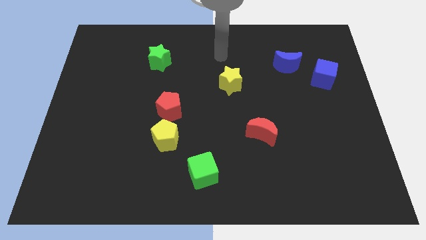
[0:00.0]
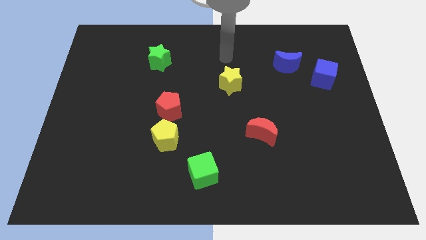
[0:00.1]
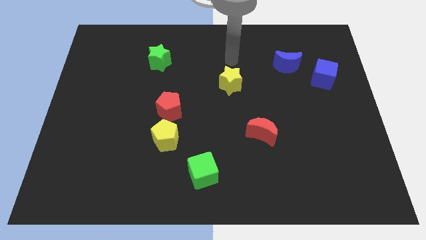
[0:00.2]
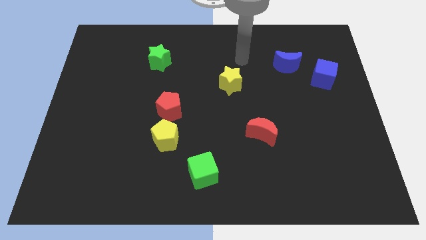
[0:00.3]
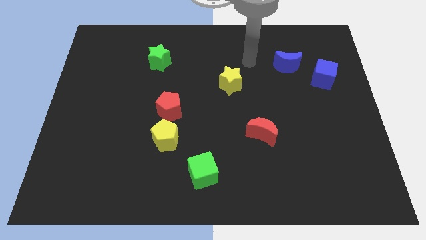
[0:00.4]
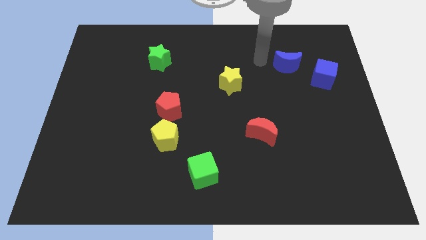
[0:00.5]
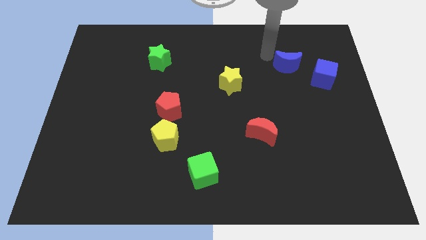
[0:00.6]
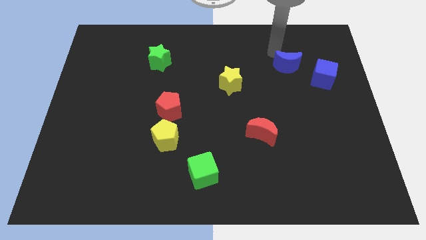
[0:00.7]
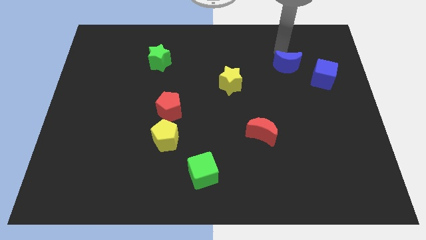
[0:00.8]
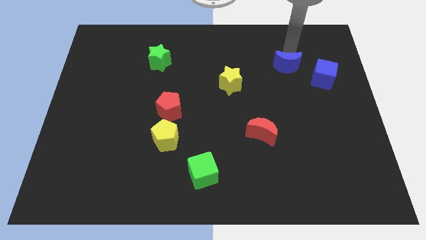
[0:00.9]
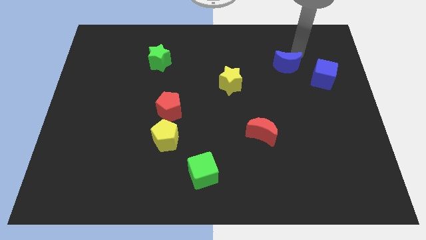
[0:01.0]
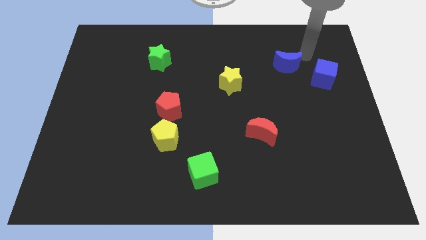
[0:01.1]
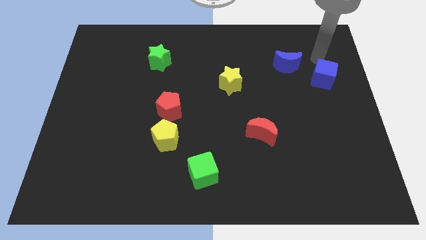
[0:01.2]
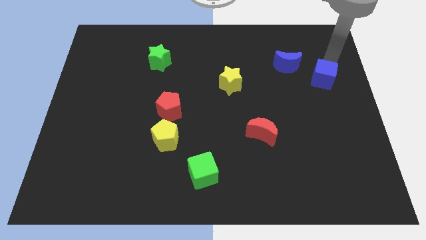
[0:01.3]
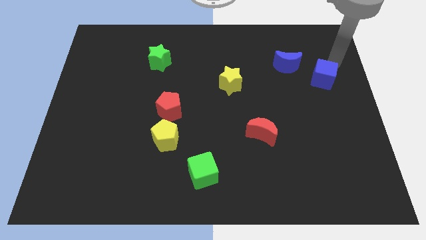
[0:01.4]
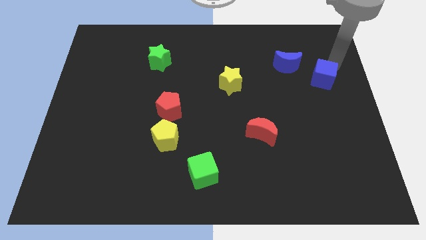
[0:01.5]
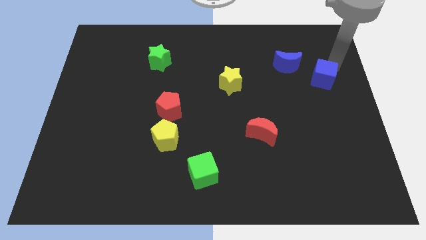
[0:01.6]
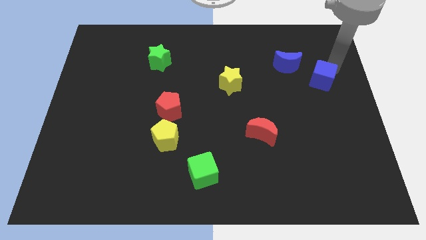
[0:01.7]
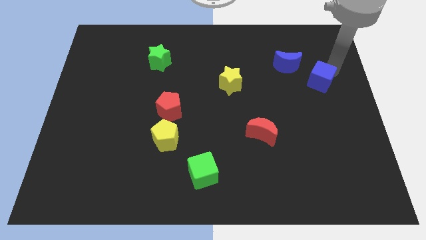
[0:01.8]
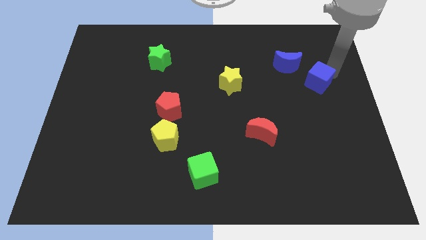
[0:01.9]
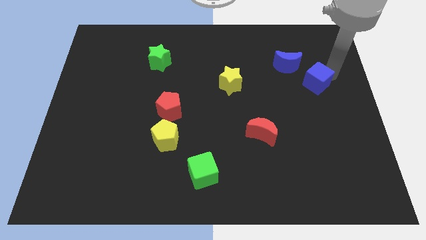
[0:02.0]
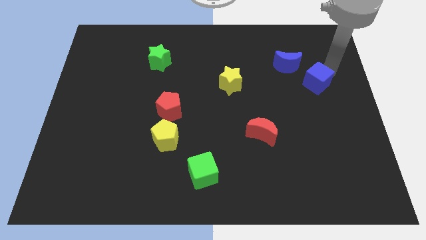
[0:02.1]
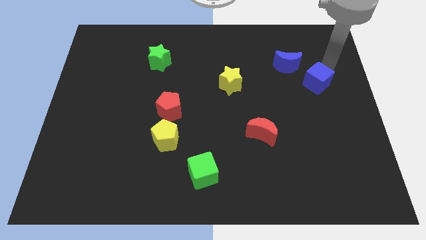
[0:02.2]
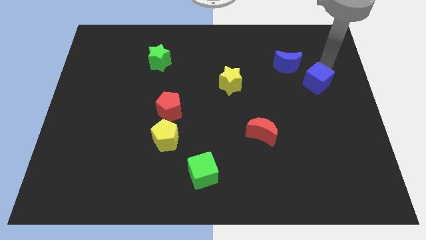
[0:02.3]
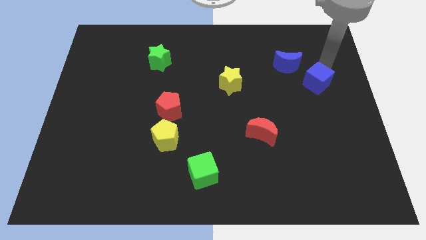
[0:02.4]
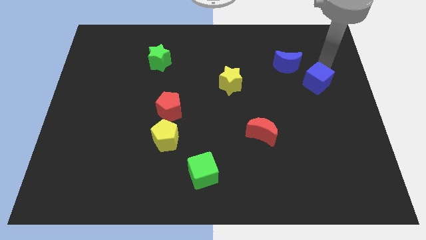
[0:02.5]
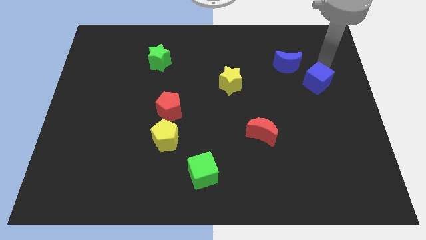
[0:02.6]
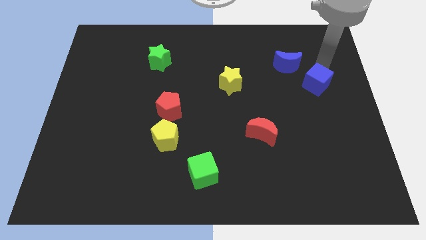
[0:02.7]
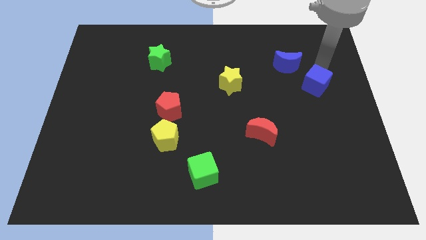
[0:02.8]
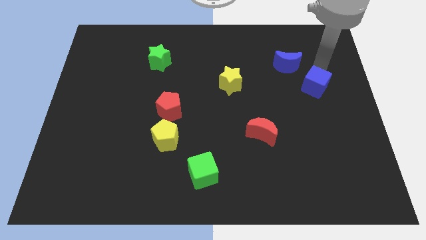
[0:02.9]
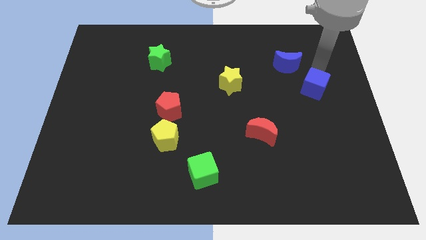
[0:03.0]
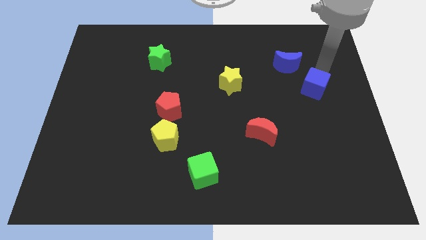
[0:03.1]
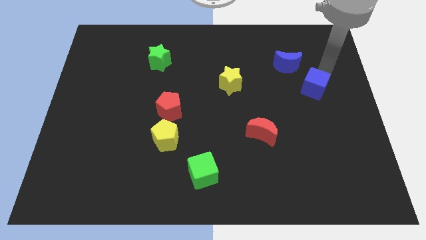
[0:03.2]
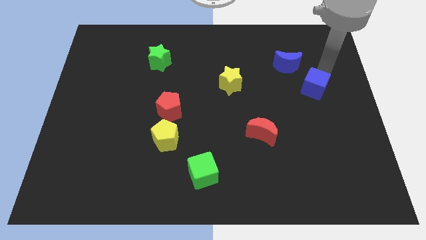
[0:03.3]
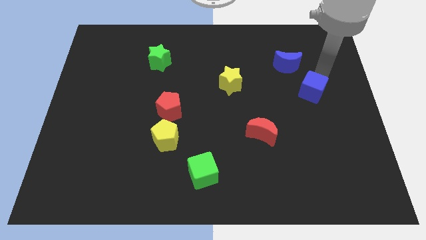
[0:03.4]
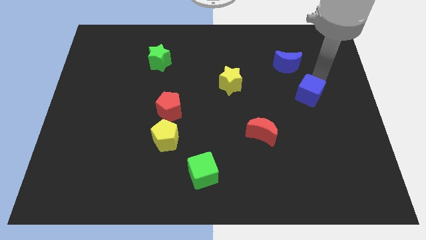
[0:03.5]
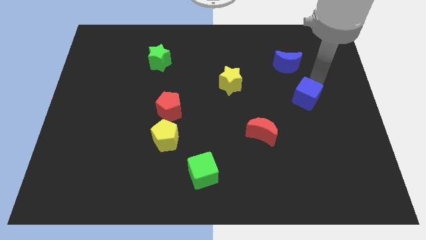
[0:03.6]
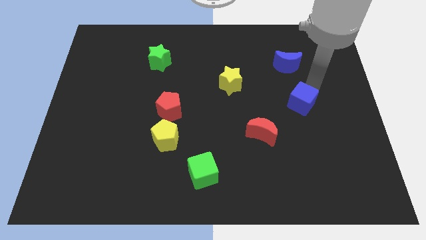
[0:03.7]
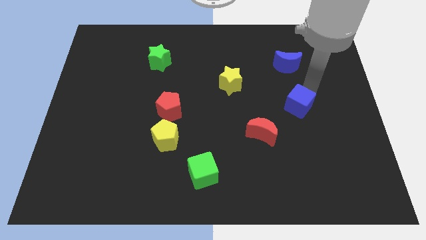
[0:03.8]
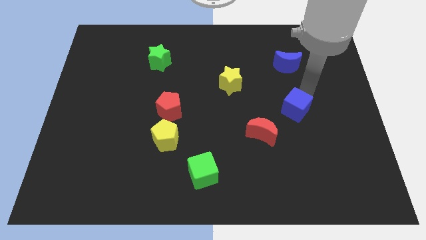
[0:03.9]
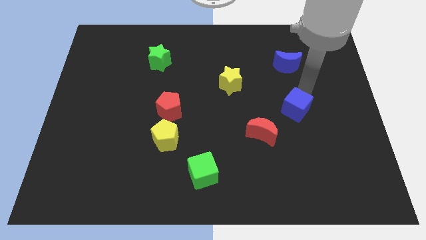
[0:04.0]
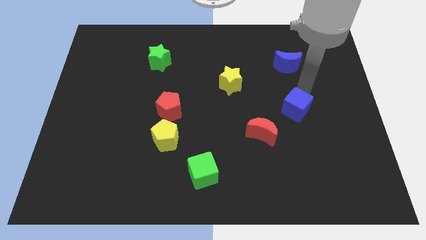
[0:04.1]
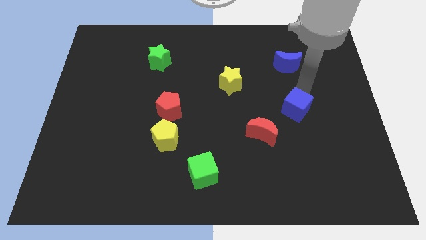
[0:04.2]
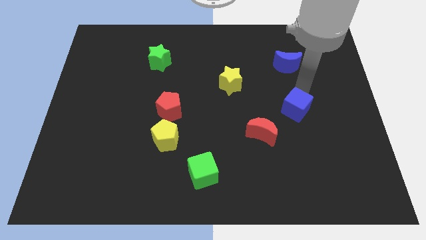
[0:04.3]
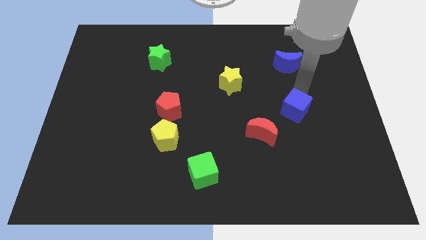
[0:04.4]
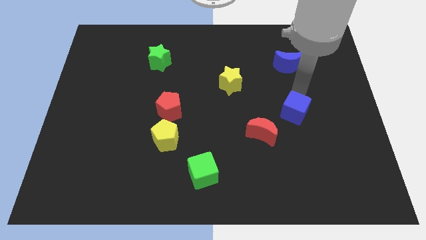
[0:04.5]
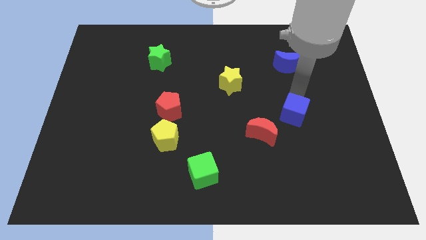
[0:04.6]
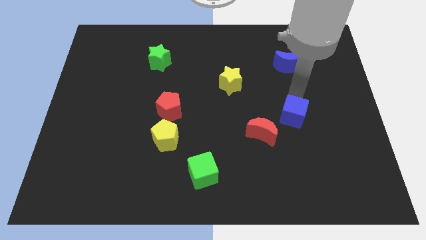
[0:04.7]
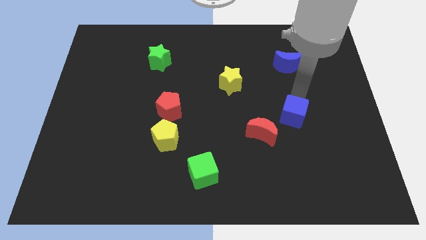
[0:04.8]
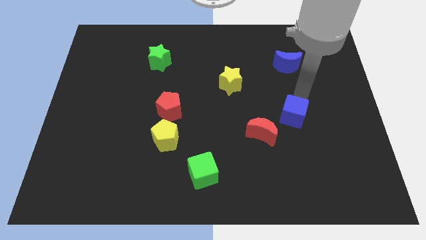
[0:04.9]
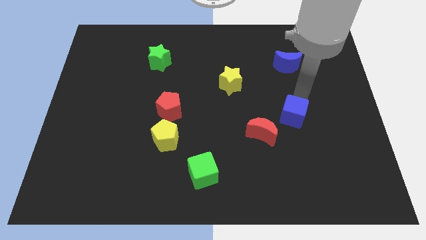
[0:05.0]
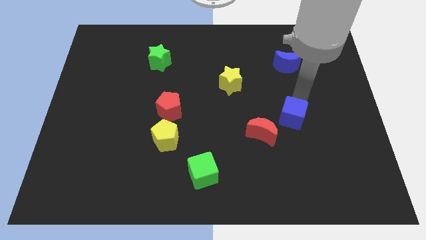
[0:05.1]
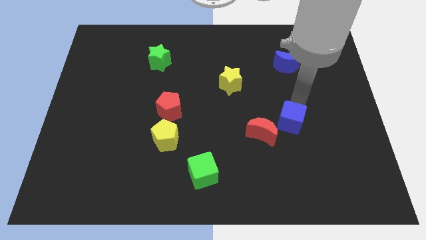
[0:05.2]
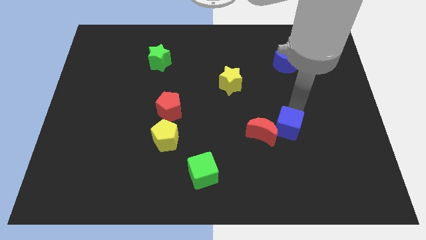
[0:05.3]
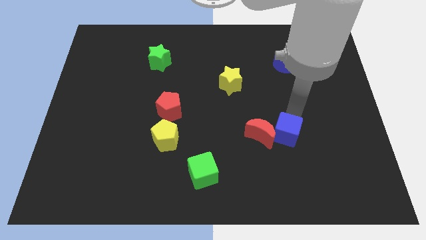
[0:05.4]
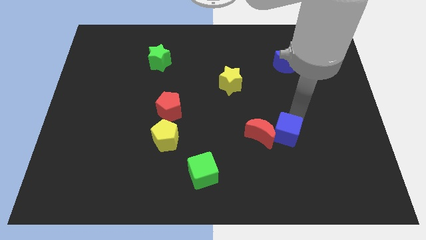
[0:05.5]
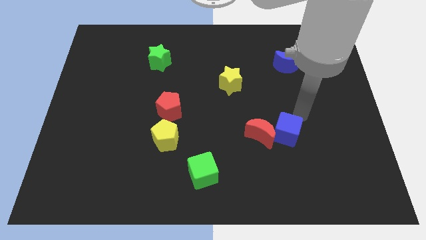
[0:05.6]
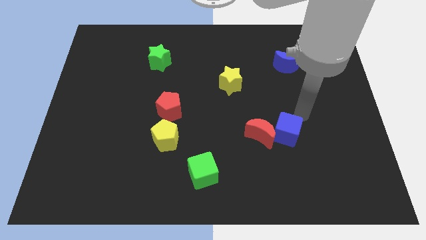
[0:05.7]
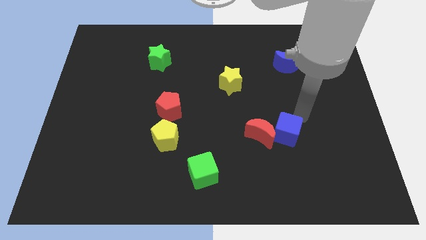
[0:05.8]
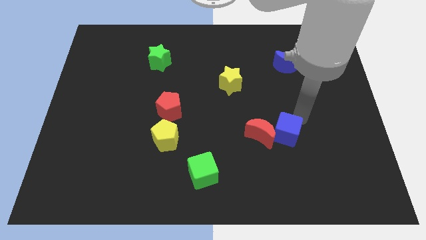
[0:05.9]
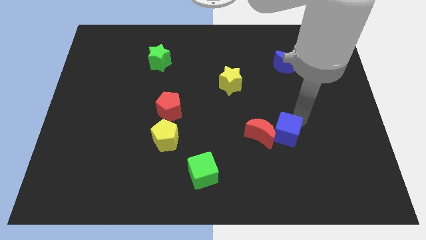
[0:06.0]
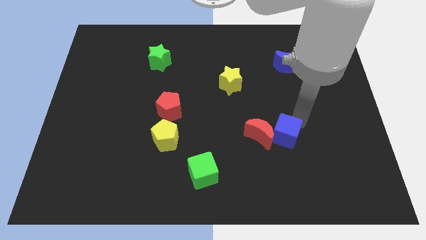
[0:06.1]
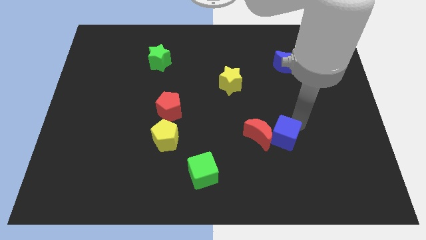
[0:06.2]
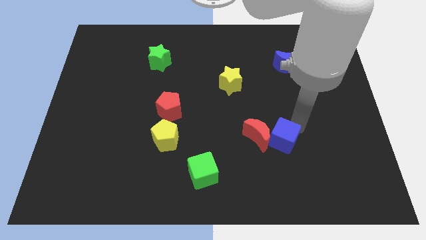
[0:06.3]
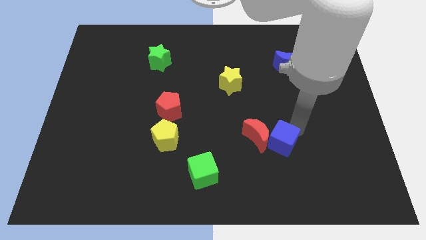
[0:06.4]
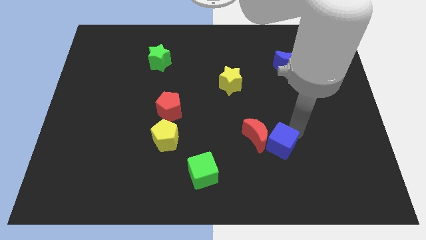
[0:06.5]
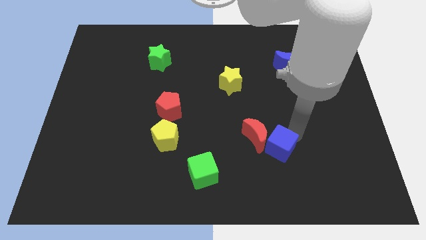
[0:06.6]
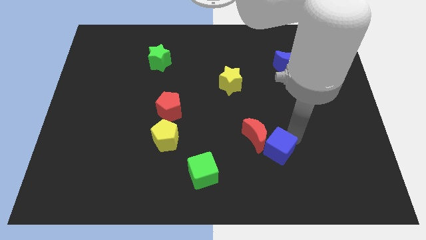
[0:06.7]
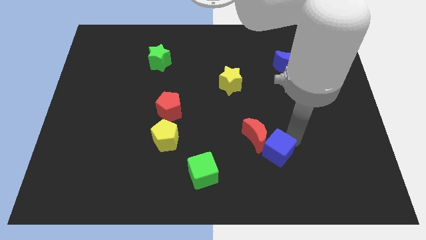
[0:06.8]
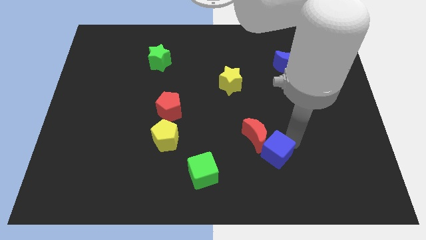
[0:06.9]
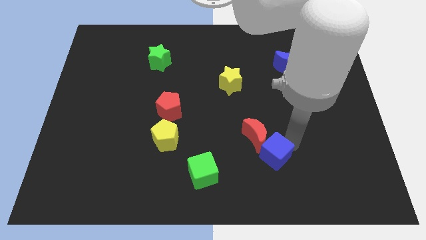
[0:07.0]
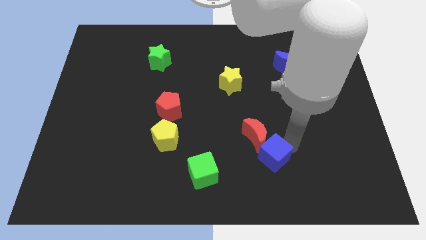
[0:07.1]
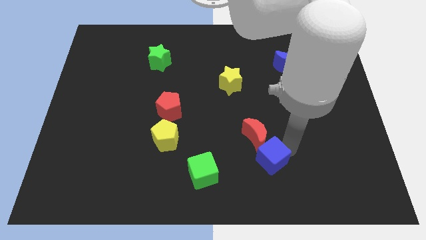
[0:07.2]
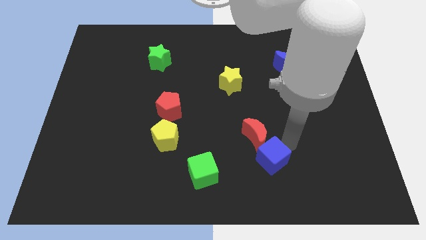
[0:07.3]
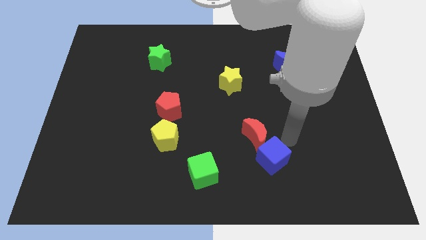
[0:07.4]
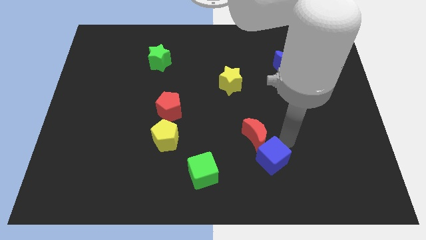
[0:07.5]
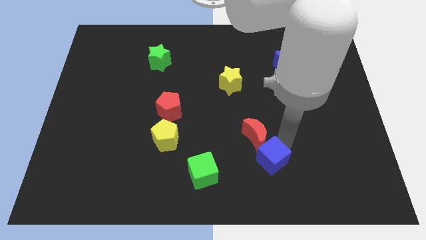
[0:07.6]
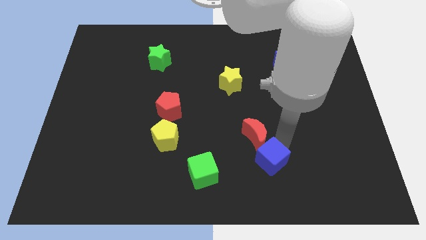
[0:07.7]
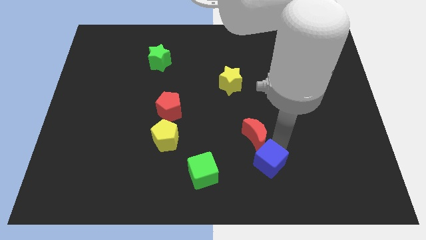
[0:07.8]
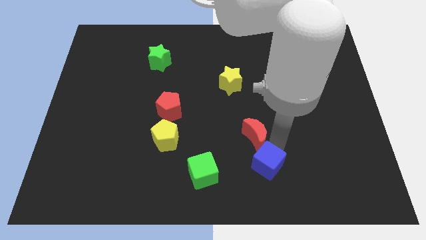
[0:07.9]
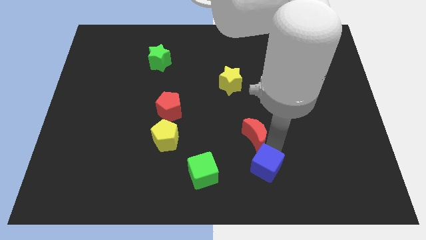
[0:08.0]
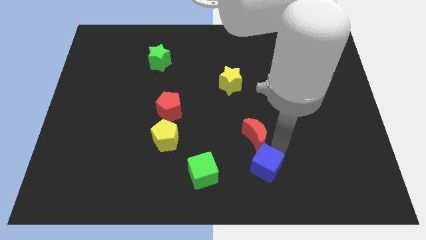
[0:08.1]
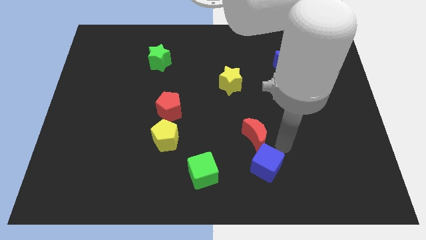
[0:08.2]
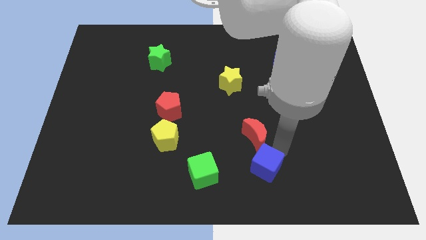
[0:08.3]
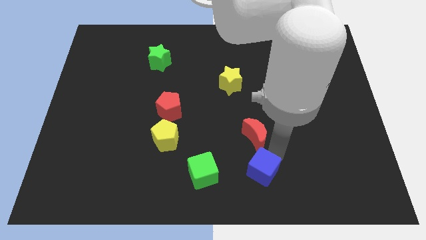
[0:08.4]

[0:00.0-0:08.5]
push the blue cube to the bottom side
